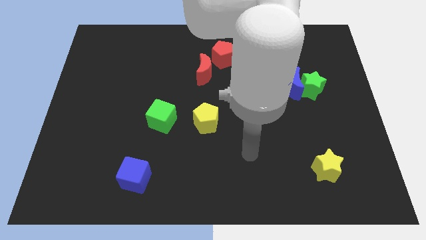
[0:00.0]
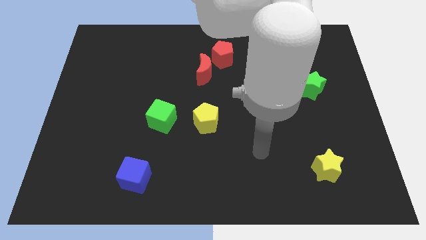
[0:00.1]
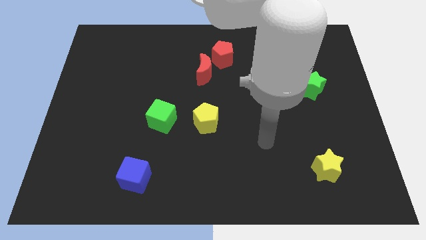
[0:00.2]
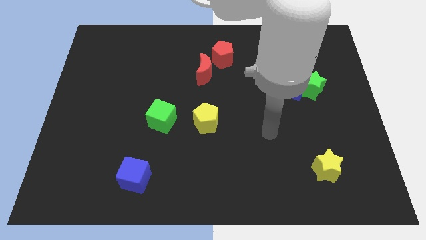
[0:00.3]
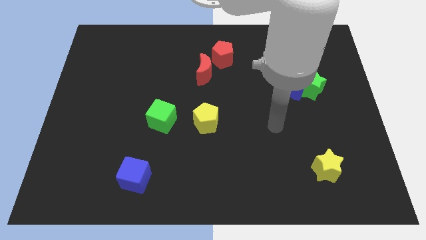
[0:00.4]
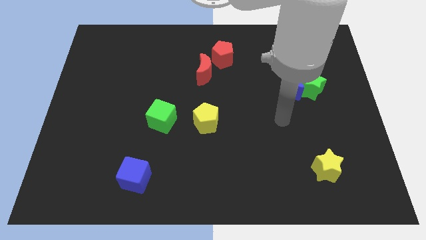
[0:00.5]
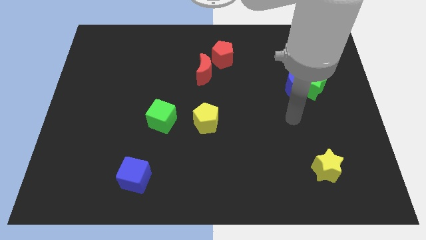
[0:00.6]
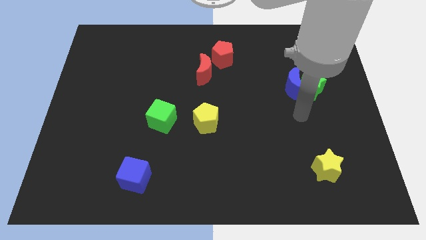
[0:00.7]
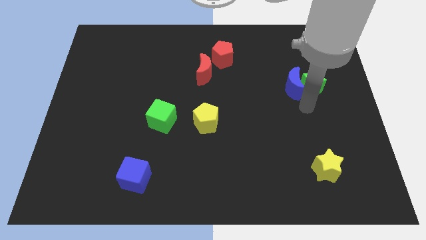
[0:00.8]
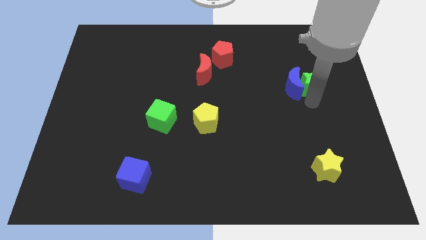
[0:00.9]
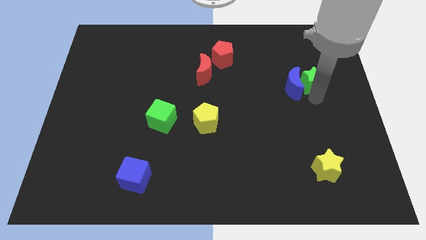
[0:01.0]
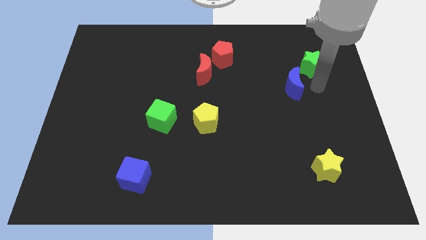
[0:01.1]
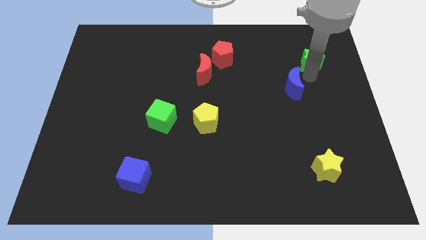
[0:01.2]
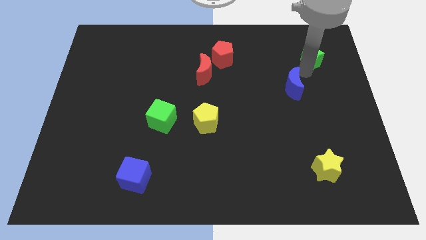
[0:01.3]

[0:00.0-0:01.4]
pull the blue moon apart from the green star

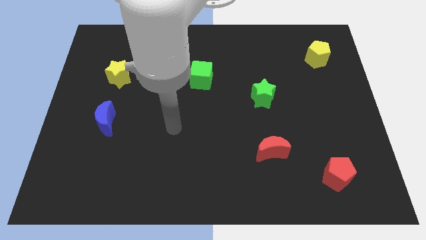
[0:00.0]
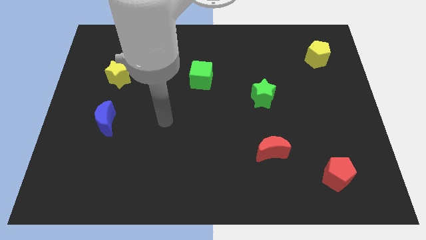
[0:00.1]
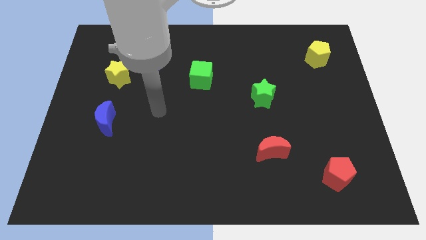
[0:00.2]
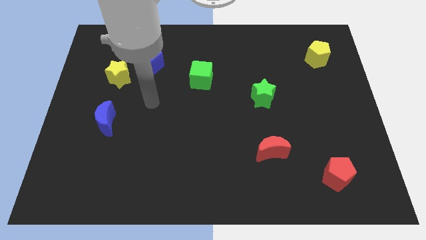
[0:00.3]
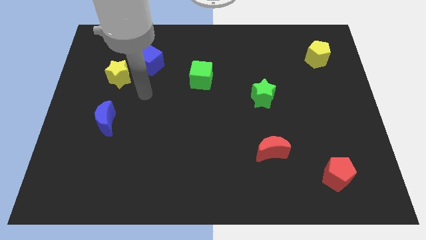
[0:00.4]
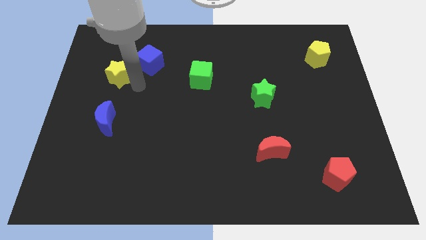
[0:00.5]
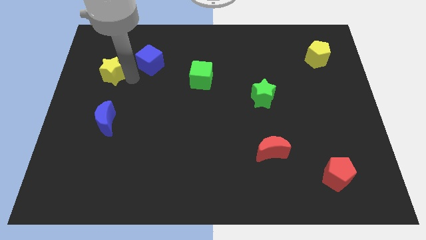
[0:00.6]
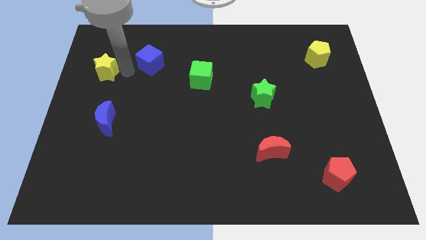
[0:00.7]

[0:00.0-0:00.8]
pull the blue cube apart from the yellow star

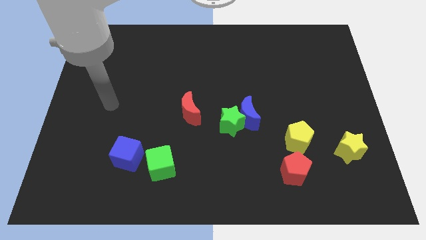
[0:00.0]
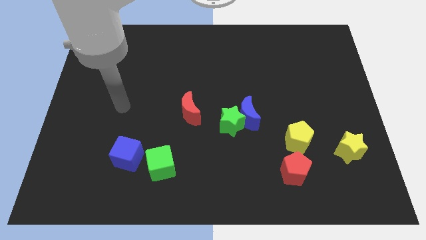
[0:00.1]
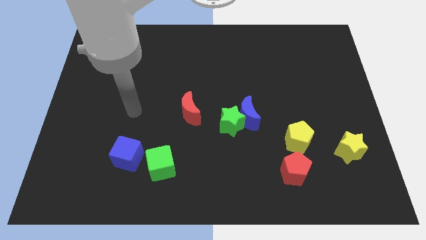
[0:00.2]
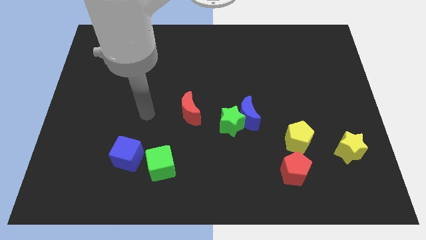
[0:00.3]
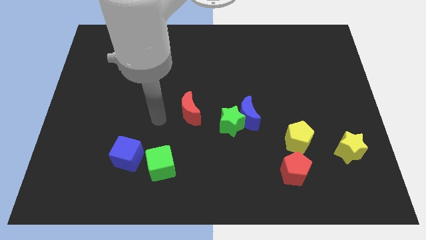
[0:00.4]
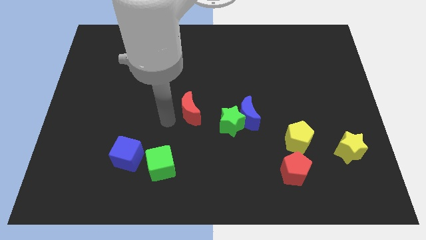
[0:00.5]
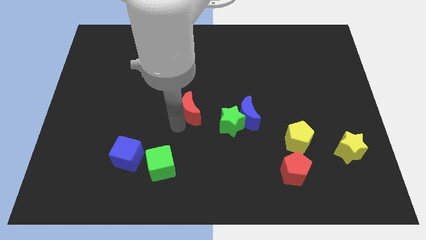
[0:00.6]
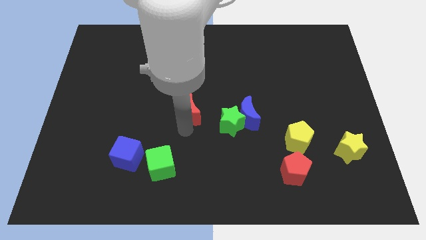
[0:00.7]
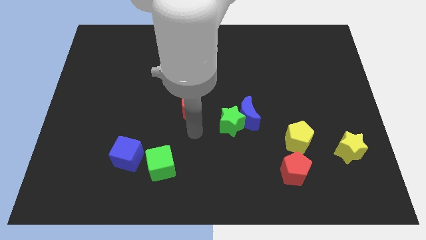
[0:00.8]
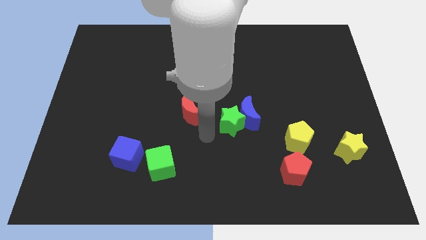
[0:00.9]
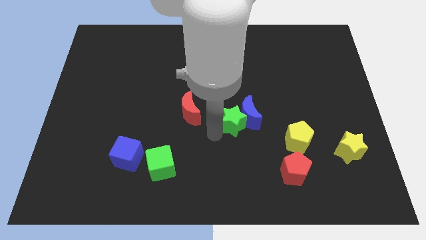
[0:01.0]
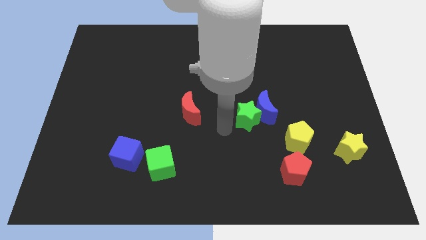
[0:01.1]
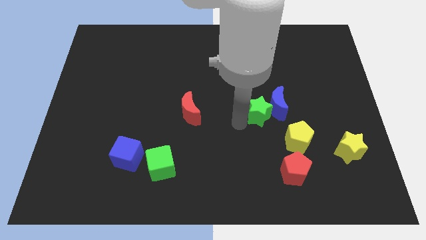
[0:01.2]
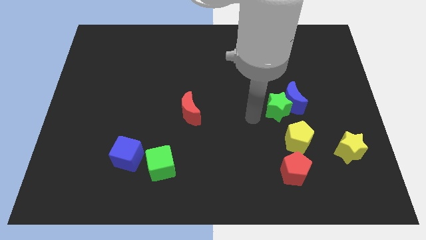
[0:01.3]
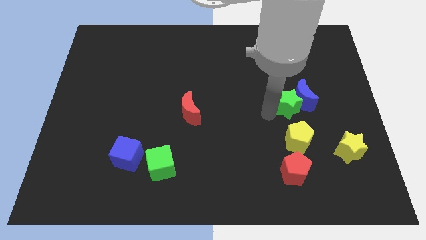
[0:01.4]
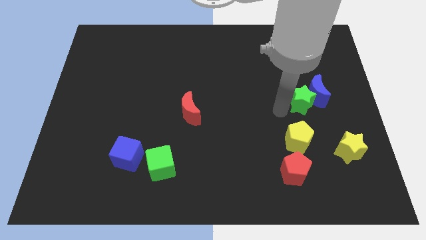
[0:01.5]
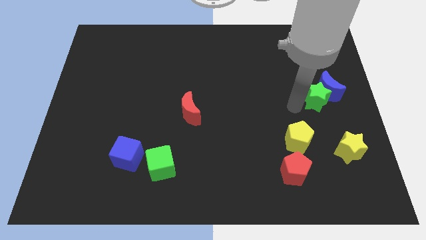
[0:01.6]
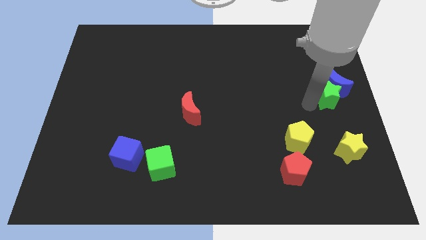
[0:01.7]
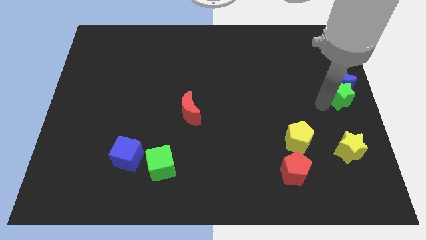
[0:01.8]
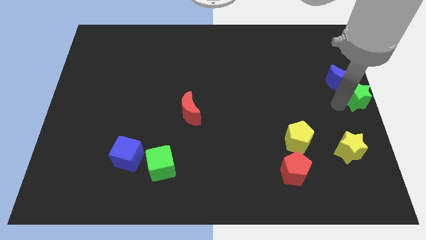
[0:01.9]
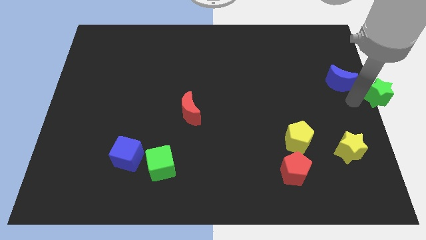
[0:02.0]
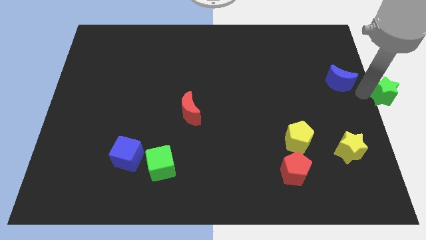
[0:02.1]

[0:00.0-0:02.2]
move the blue moon away from the green star

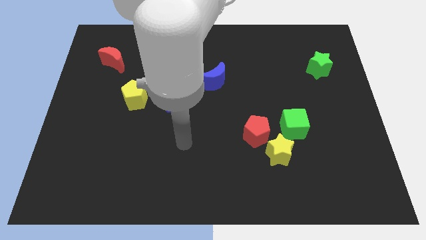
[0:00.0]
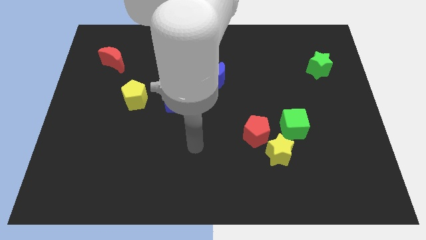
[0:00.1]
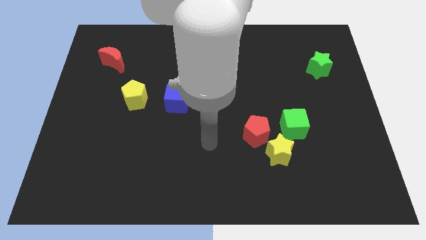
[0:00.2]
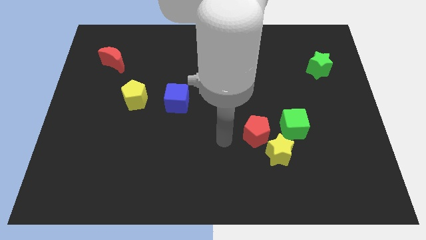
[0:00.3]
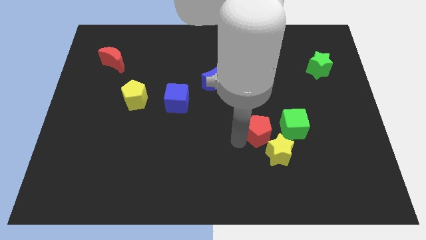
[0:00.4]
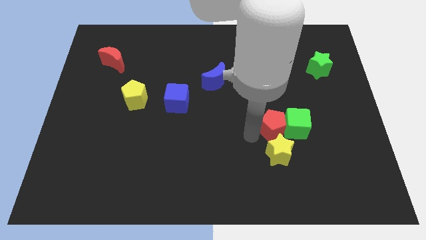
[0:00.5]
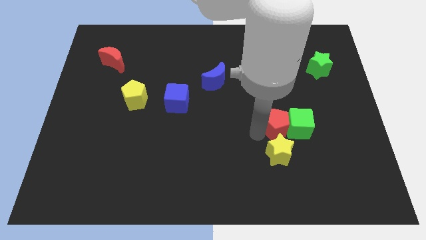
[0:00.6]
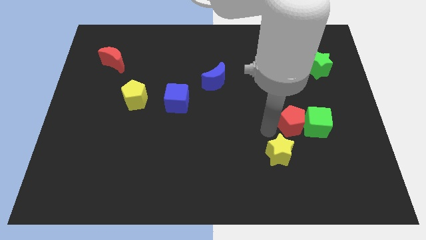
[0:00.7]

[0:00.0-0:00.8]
separate the yellow star from the red pentagon and green cube

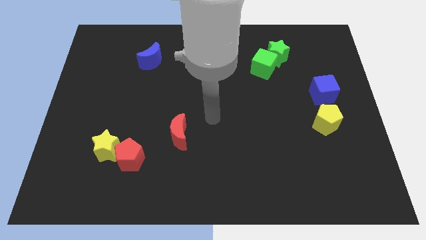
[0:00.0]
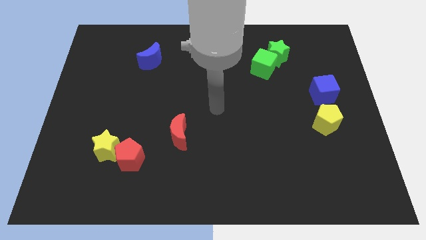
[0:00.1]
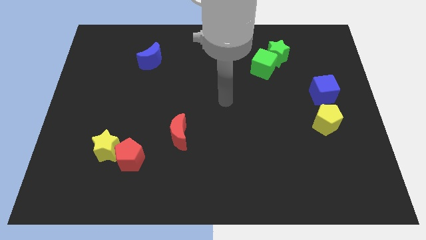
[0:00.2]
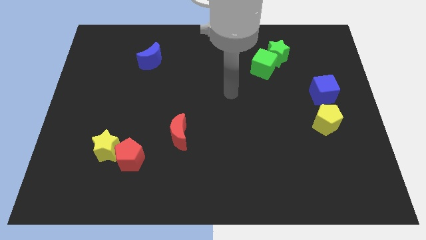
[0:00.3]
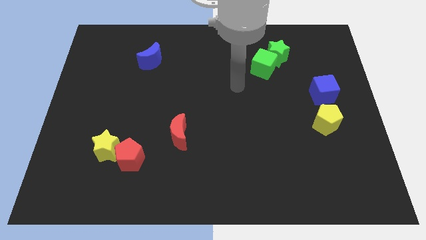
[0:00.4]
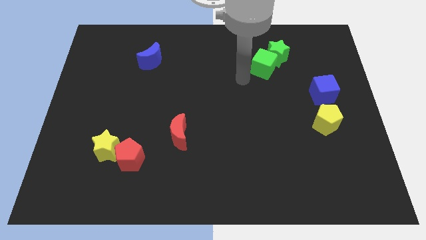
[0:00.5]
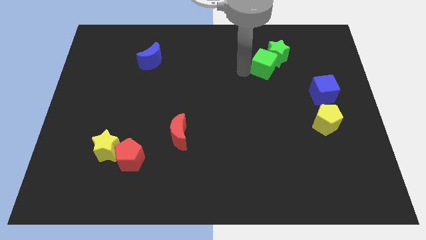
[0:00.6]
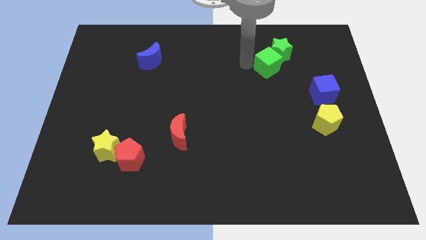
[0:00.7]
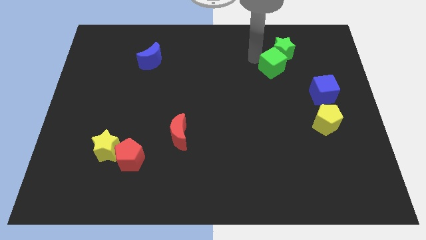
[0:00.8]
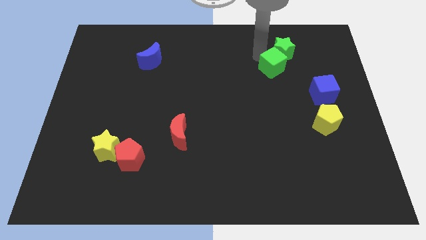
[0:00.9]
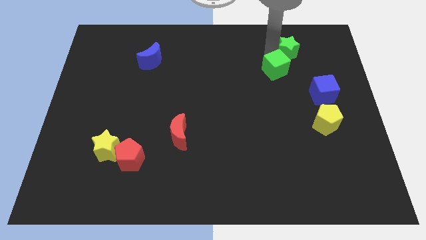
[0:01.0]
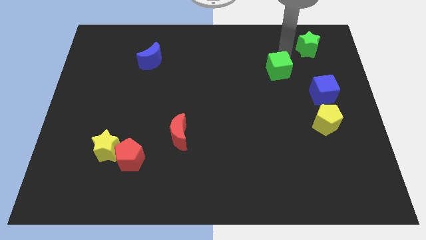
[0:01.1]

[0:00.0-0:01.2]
separate the green cube from the green star

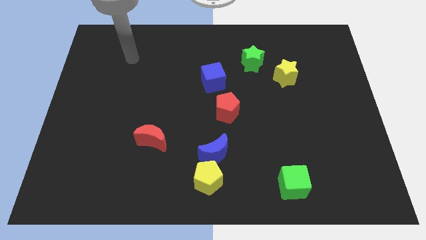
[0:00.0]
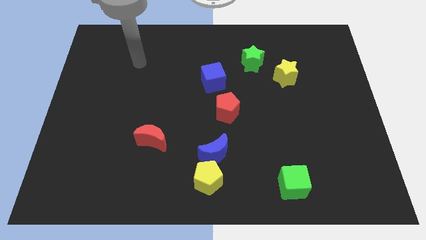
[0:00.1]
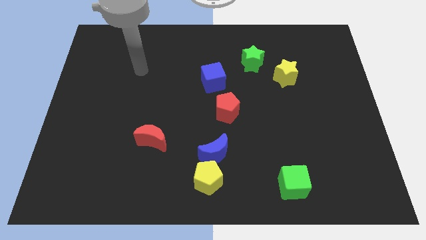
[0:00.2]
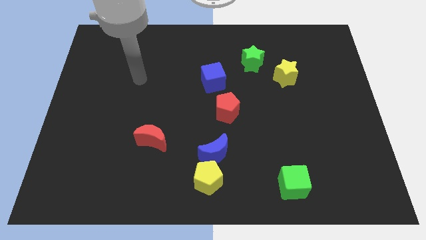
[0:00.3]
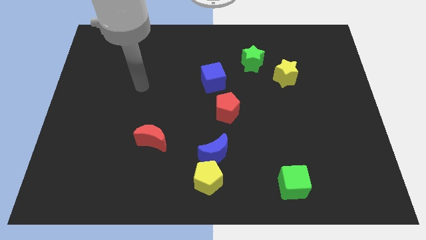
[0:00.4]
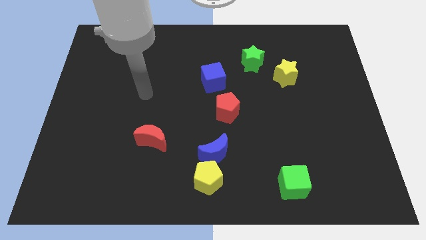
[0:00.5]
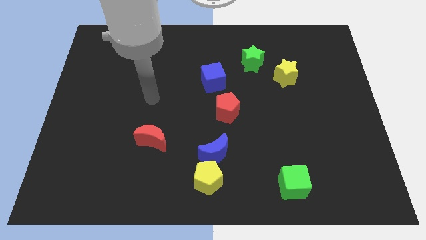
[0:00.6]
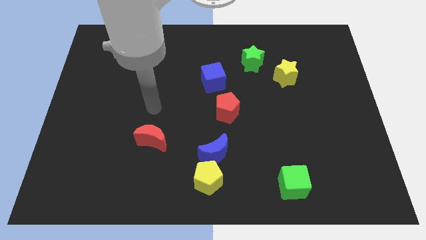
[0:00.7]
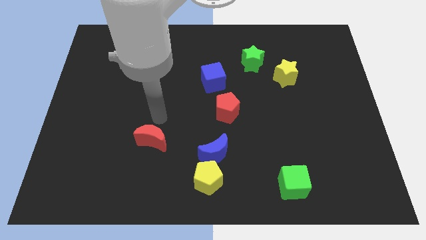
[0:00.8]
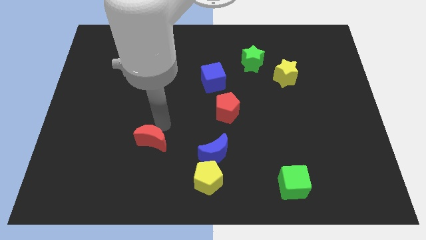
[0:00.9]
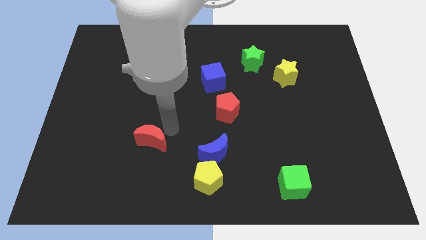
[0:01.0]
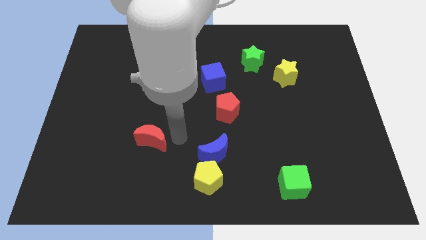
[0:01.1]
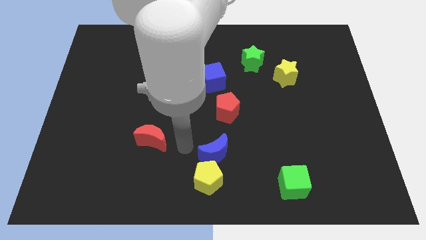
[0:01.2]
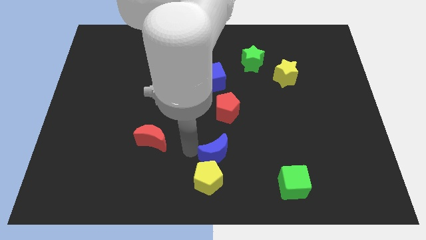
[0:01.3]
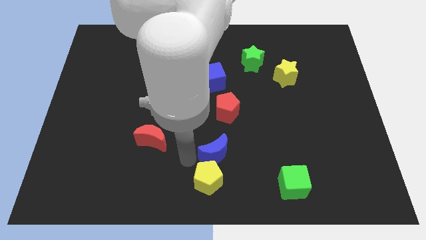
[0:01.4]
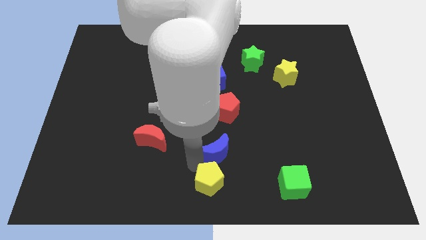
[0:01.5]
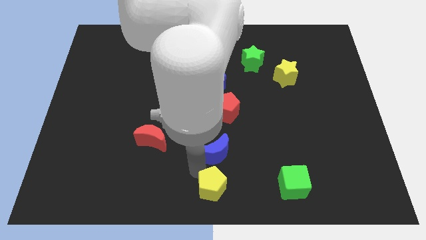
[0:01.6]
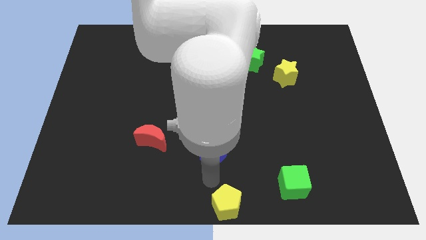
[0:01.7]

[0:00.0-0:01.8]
separate the blue moon from the yellow pentagon

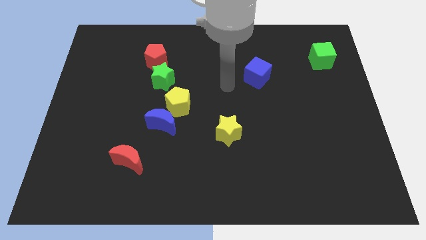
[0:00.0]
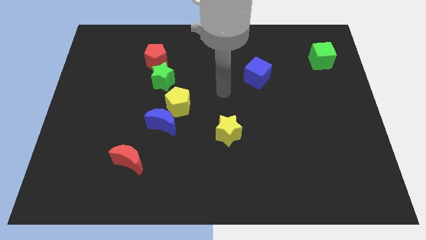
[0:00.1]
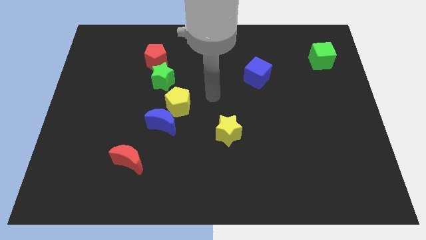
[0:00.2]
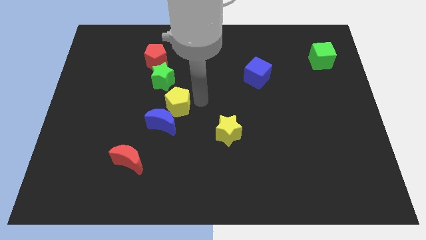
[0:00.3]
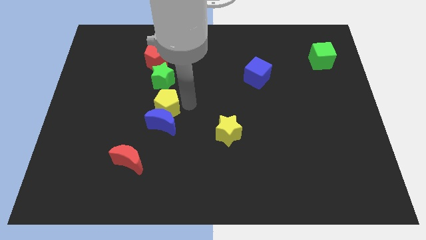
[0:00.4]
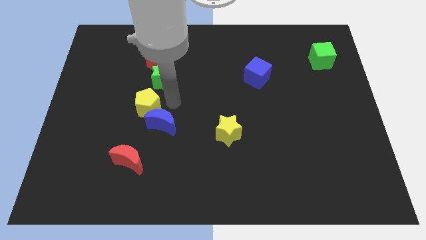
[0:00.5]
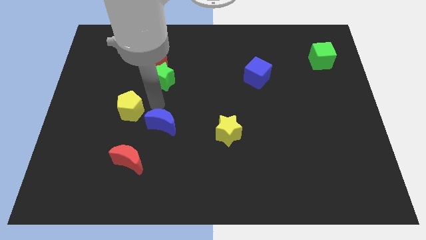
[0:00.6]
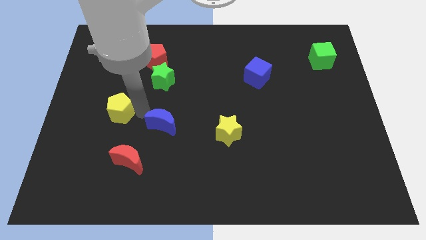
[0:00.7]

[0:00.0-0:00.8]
pull the blue moon apart from the yellow pentagon

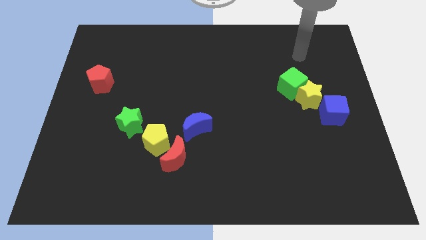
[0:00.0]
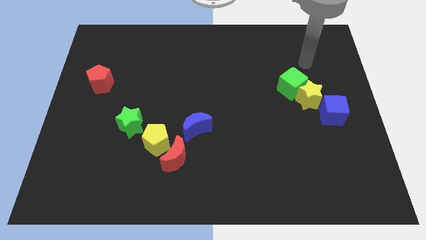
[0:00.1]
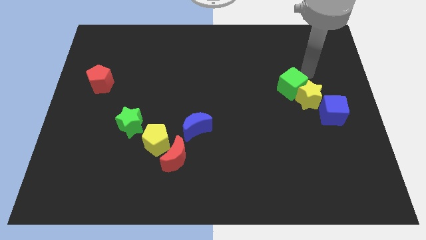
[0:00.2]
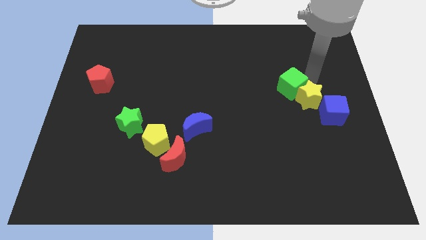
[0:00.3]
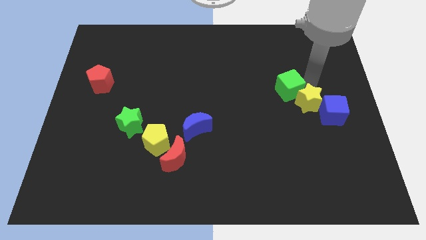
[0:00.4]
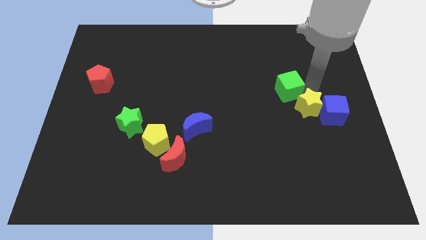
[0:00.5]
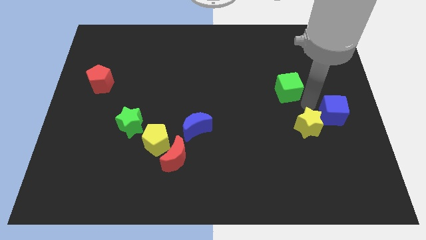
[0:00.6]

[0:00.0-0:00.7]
pull the green cube apart from the yellow star
